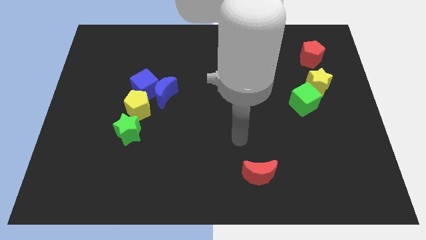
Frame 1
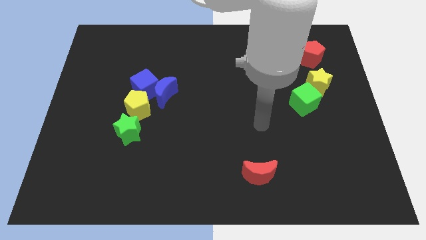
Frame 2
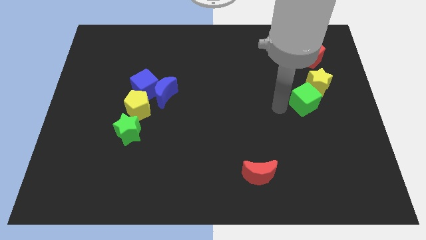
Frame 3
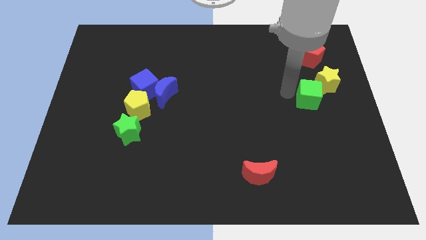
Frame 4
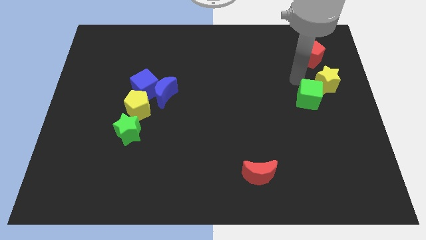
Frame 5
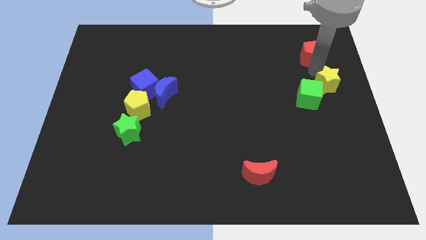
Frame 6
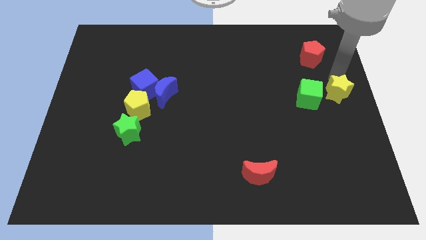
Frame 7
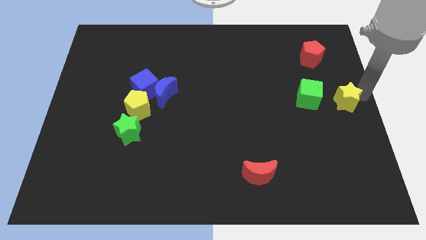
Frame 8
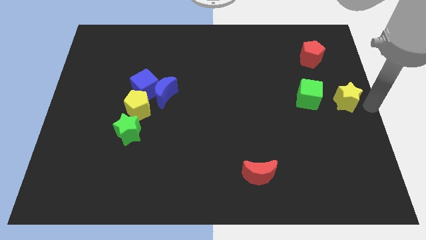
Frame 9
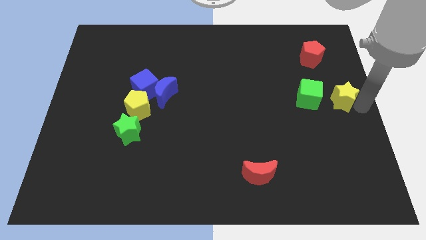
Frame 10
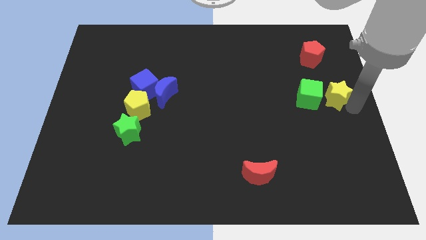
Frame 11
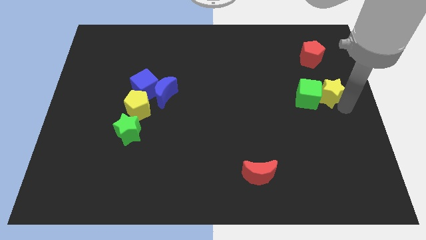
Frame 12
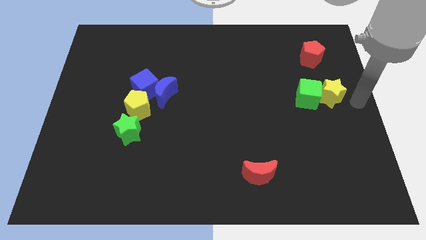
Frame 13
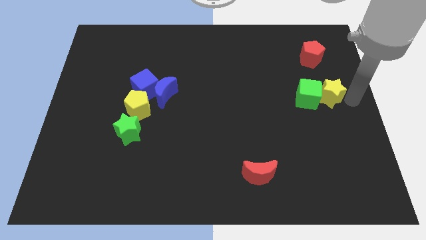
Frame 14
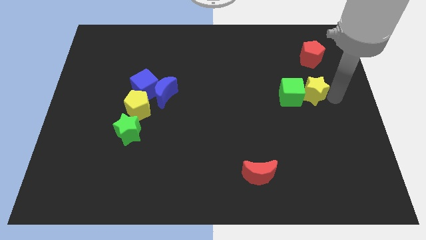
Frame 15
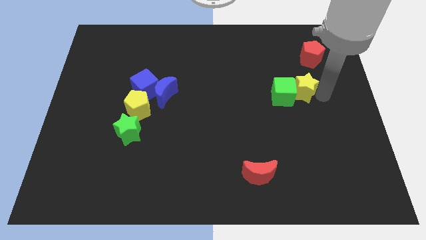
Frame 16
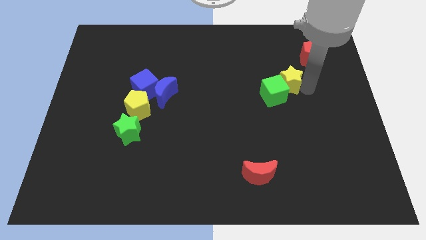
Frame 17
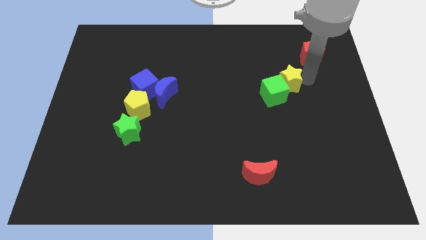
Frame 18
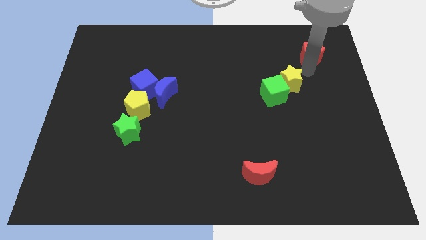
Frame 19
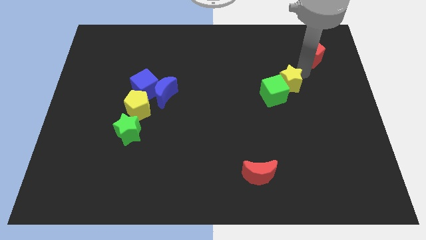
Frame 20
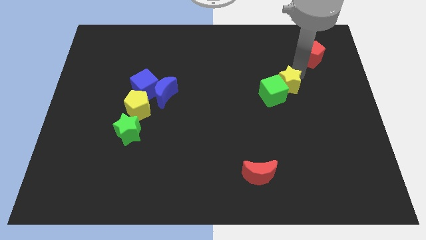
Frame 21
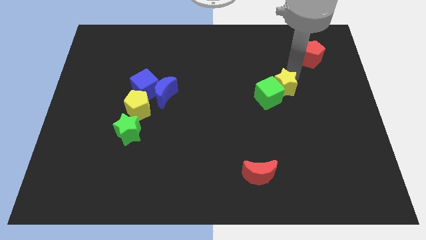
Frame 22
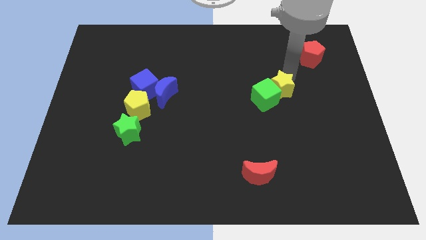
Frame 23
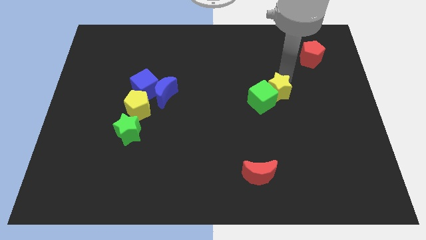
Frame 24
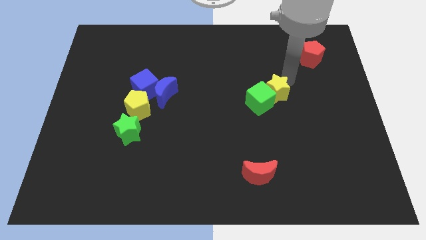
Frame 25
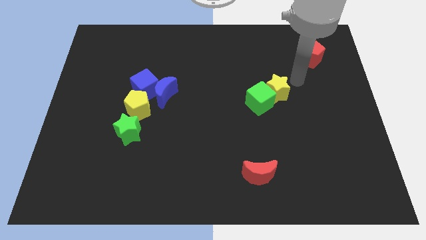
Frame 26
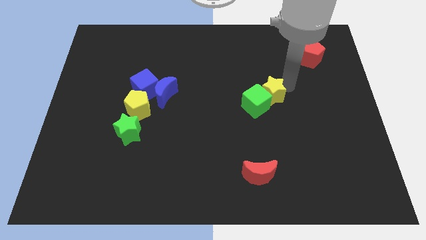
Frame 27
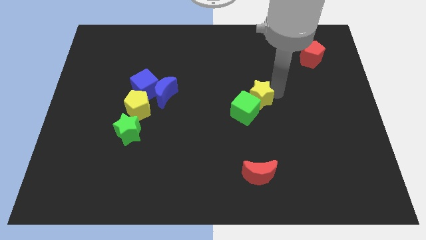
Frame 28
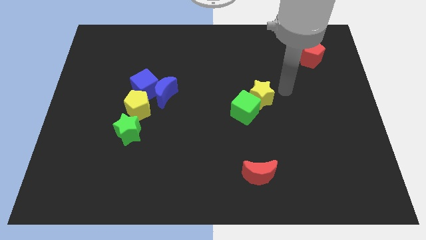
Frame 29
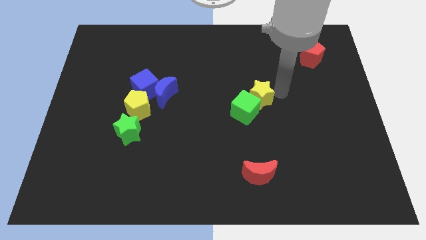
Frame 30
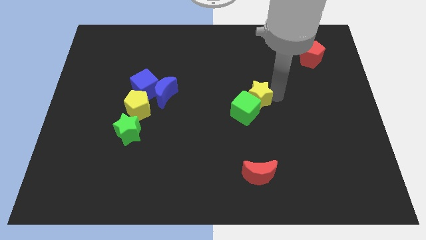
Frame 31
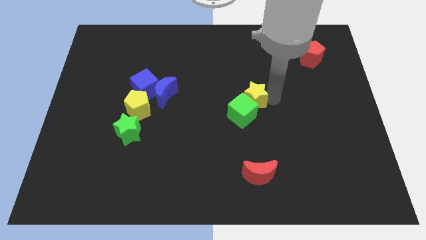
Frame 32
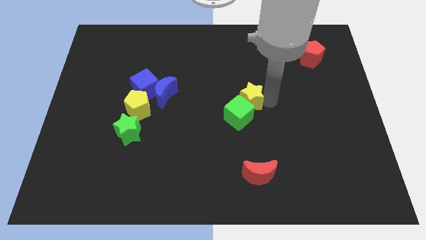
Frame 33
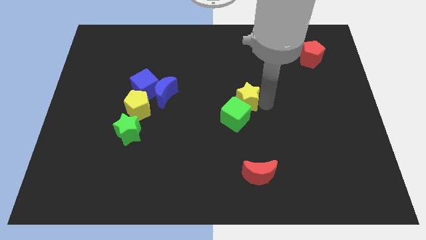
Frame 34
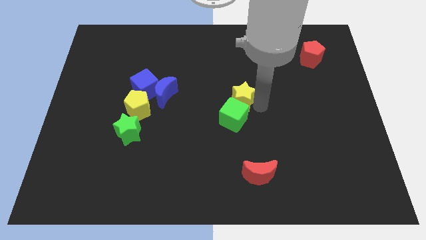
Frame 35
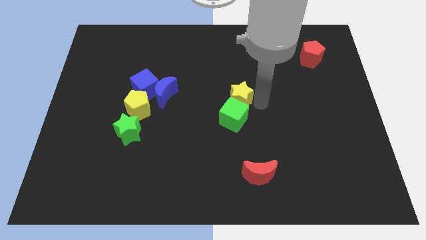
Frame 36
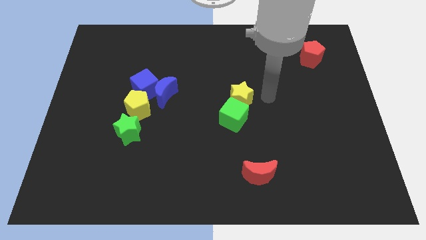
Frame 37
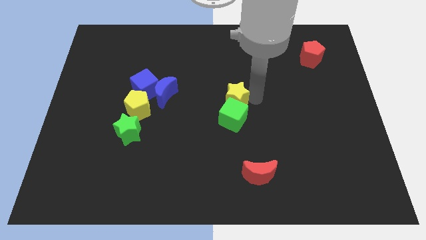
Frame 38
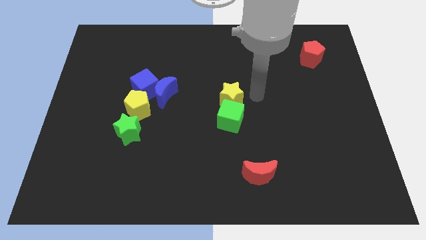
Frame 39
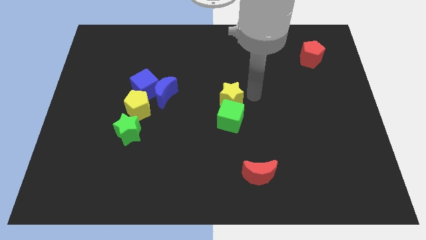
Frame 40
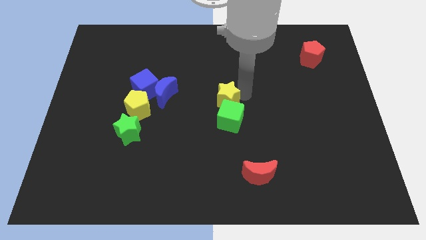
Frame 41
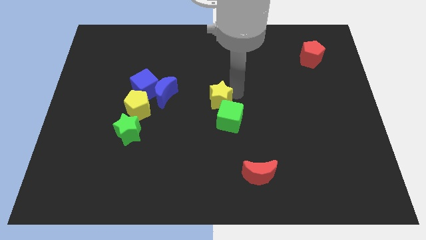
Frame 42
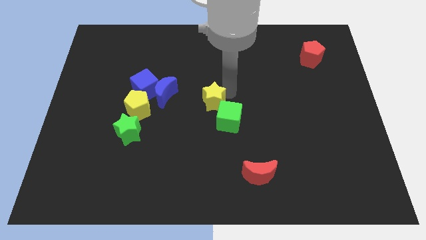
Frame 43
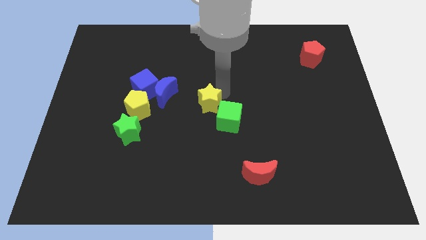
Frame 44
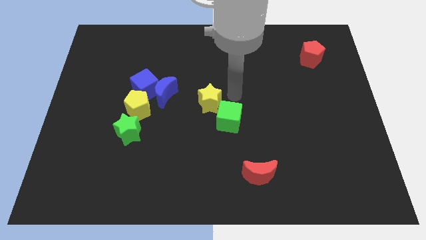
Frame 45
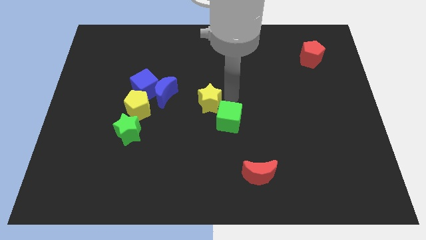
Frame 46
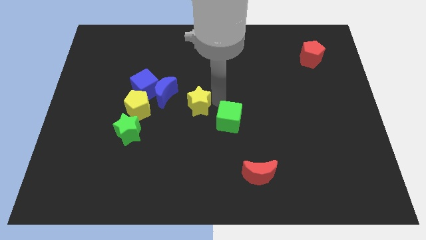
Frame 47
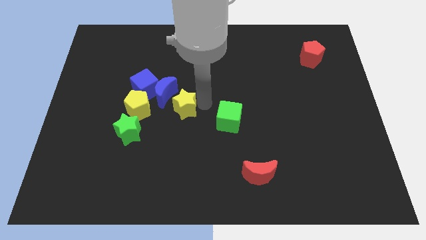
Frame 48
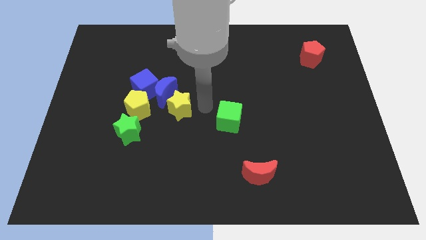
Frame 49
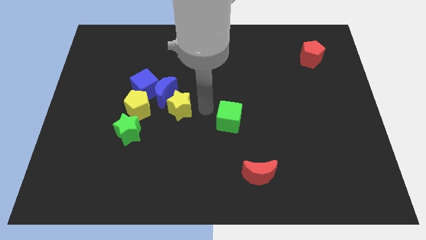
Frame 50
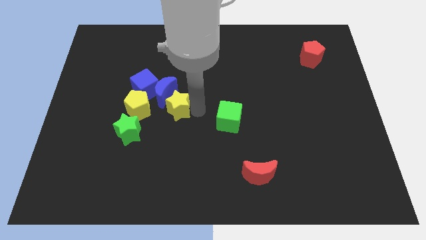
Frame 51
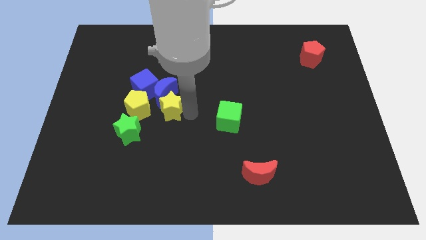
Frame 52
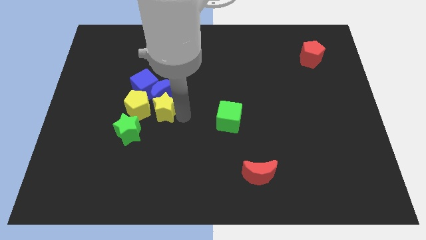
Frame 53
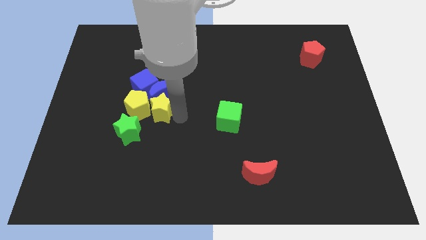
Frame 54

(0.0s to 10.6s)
slide the yellow star close to the yellow pentagon

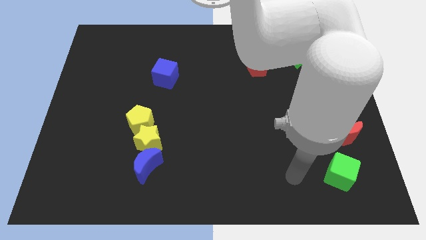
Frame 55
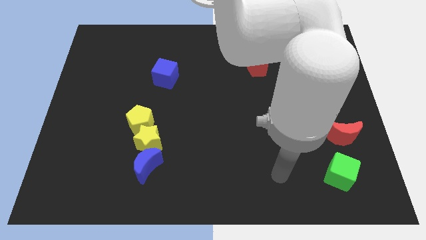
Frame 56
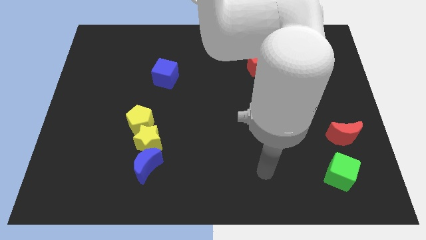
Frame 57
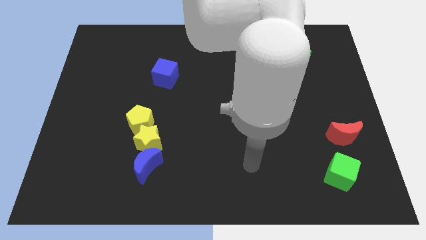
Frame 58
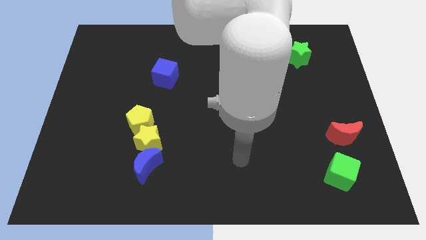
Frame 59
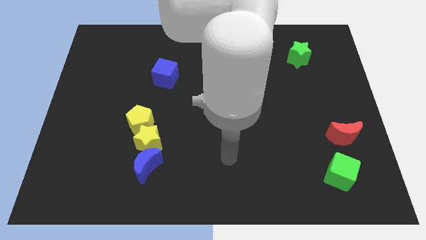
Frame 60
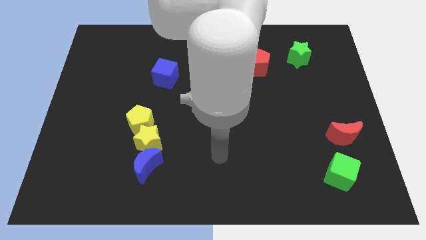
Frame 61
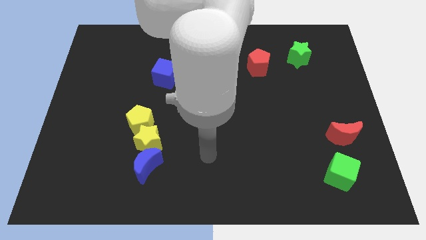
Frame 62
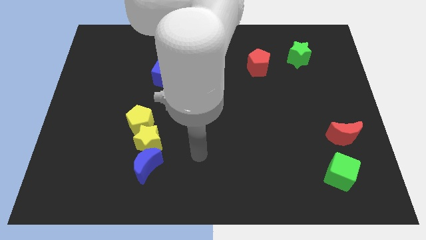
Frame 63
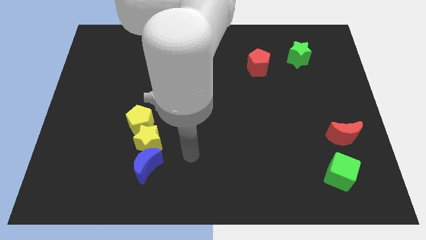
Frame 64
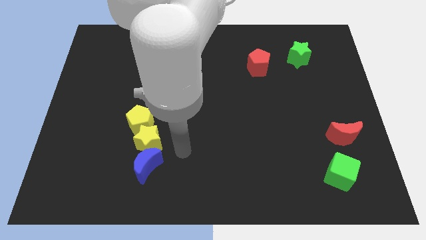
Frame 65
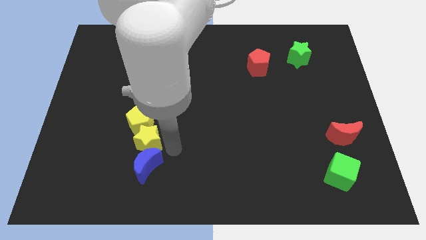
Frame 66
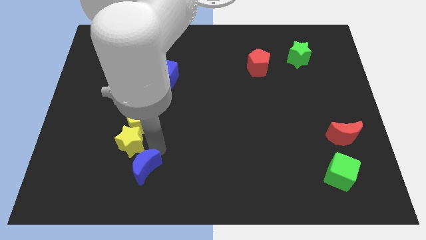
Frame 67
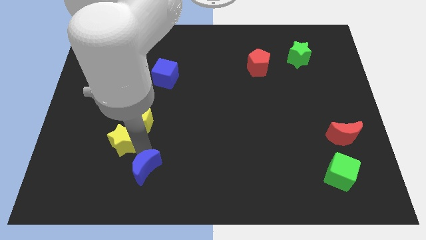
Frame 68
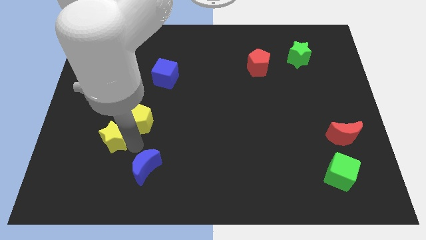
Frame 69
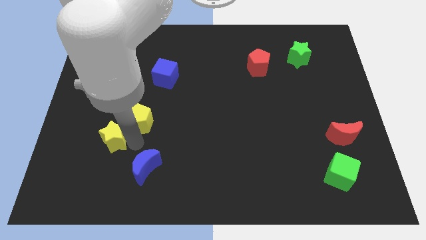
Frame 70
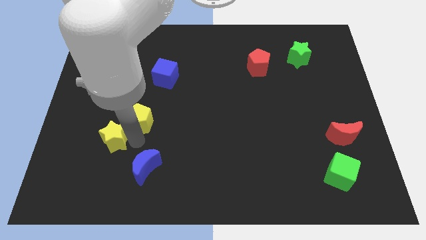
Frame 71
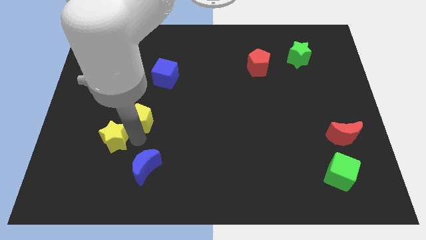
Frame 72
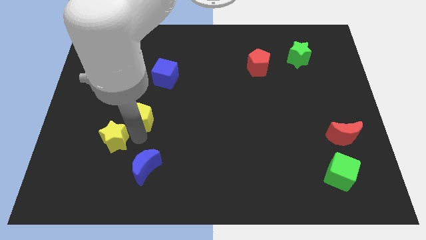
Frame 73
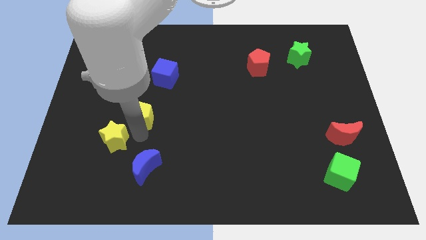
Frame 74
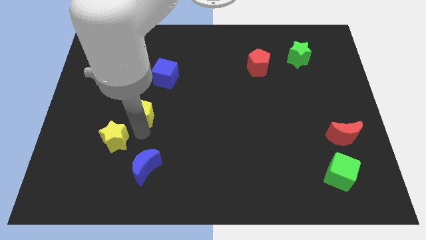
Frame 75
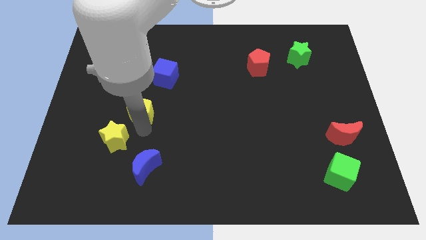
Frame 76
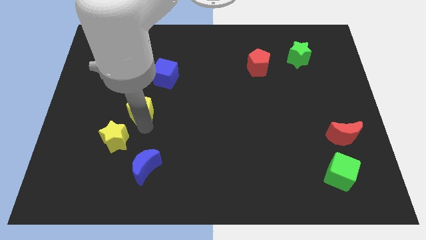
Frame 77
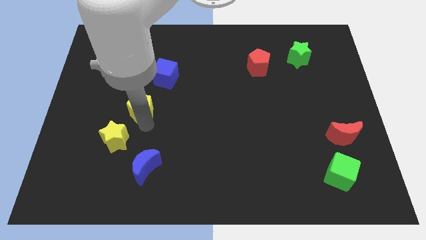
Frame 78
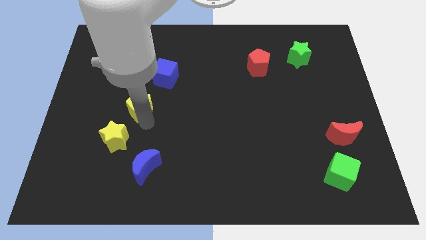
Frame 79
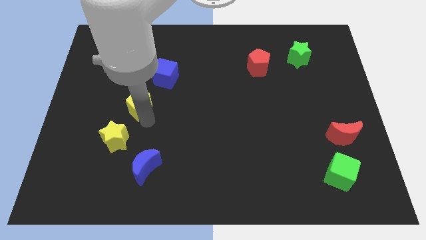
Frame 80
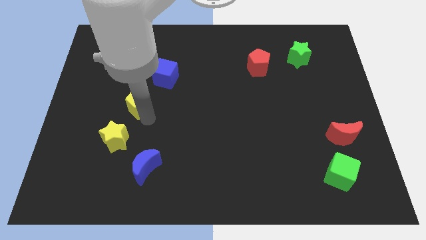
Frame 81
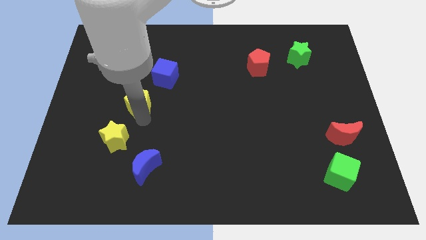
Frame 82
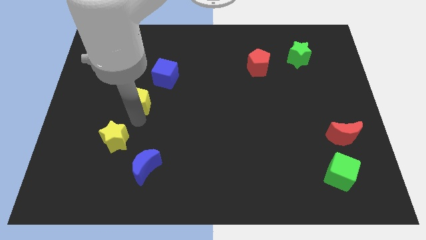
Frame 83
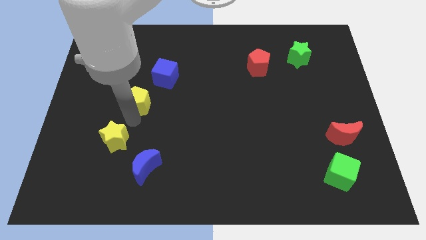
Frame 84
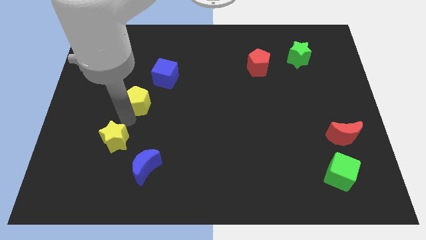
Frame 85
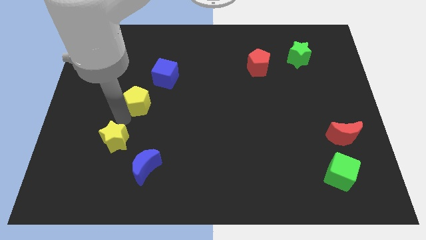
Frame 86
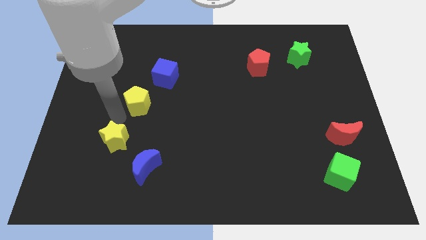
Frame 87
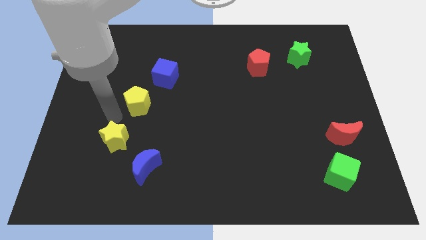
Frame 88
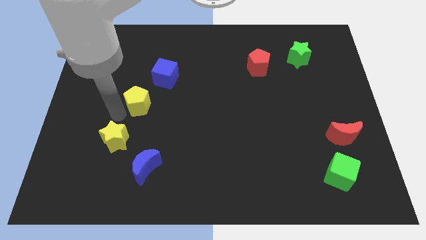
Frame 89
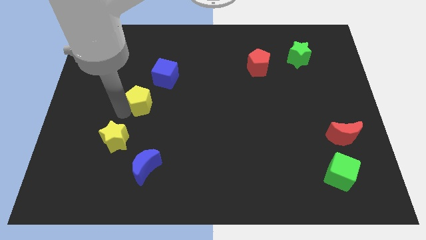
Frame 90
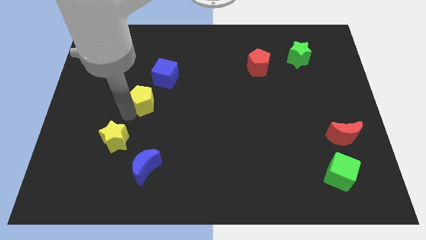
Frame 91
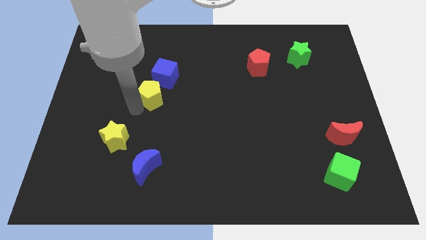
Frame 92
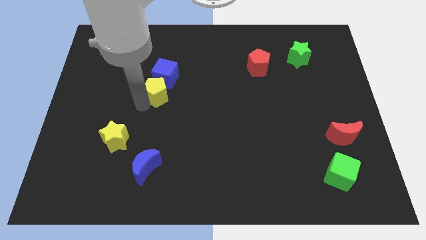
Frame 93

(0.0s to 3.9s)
slide the yellow pentagon to the blue cube
